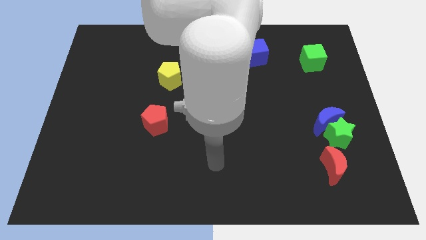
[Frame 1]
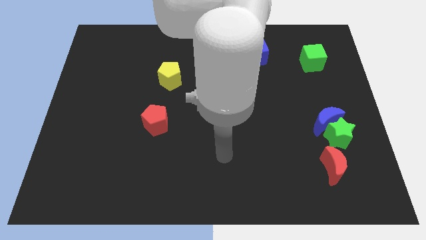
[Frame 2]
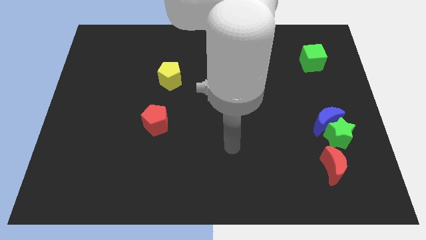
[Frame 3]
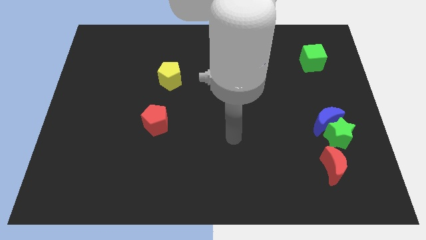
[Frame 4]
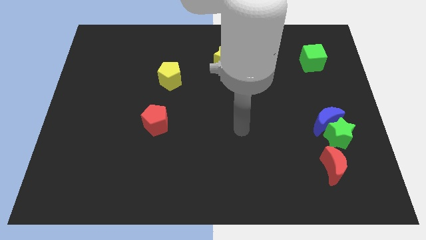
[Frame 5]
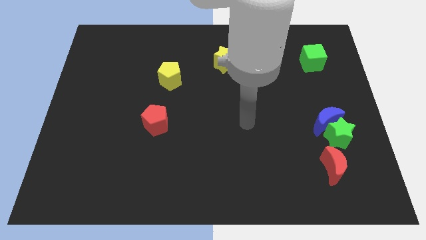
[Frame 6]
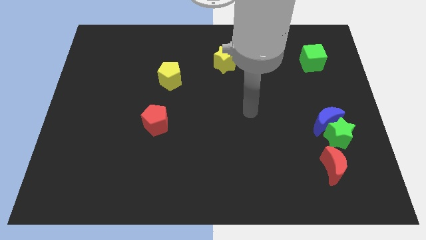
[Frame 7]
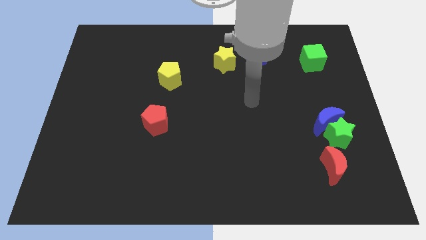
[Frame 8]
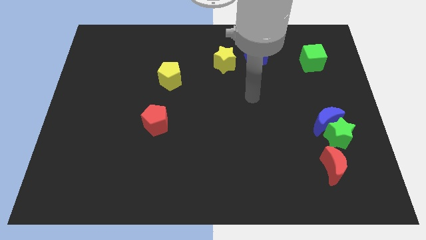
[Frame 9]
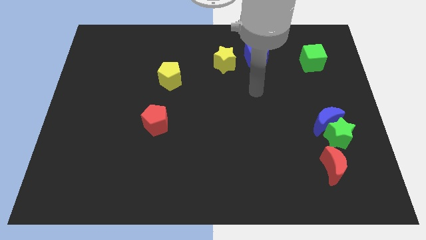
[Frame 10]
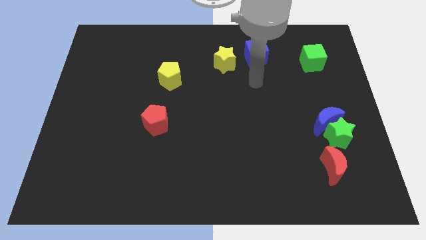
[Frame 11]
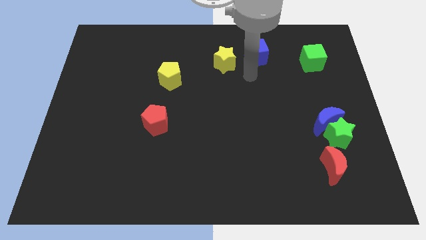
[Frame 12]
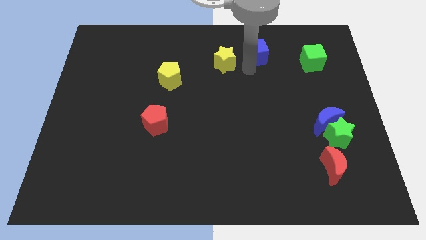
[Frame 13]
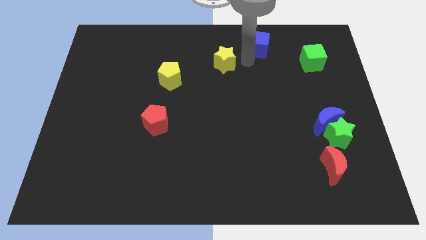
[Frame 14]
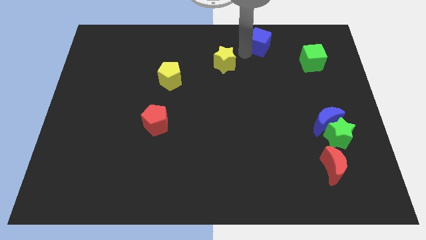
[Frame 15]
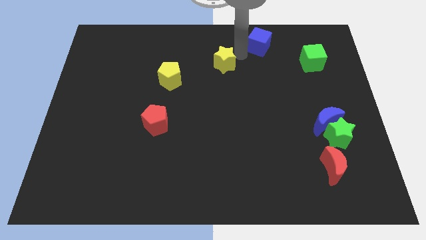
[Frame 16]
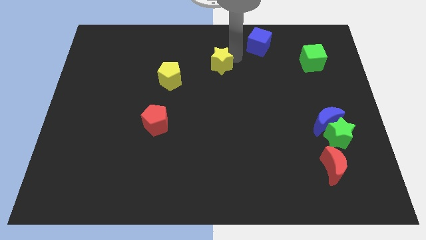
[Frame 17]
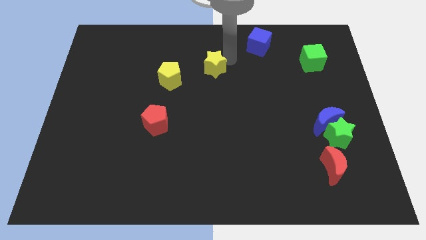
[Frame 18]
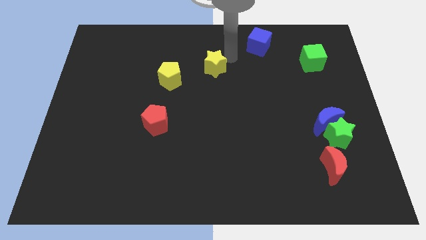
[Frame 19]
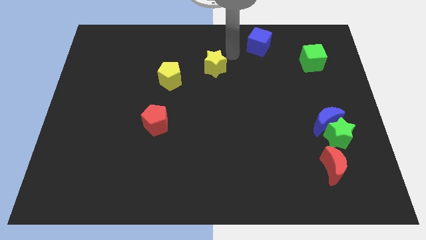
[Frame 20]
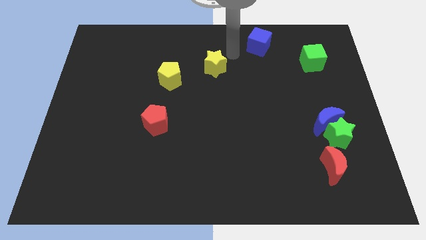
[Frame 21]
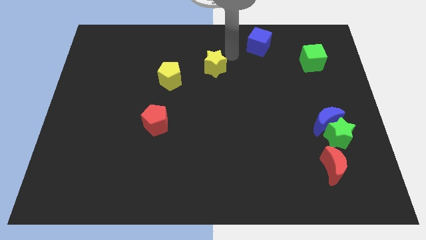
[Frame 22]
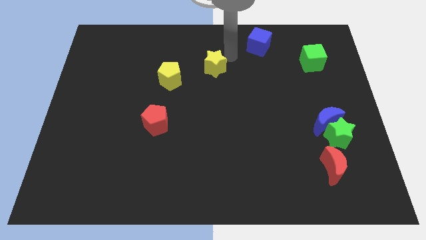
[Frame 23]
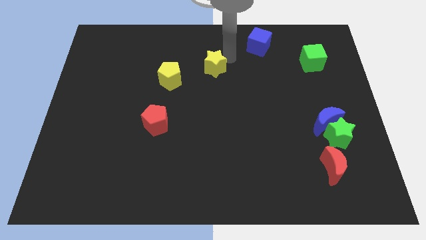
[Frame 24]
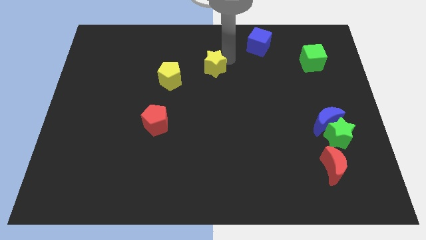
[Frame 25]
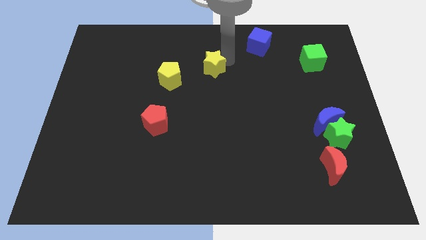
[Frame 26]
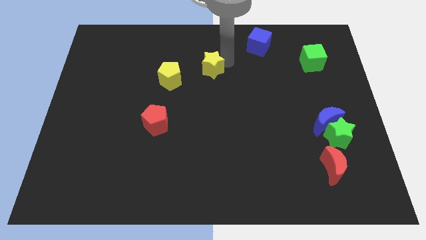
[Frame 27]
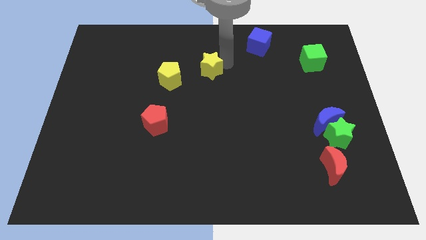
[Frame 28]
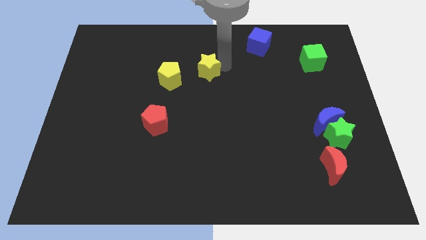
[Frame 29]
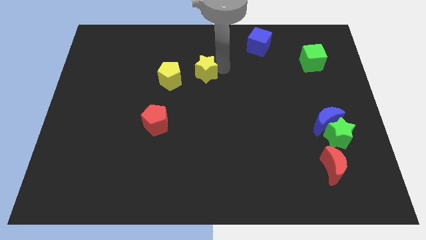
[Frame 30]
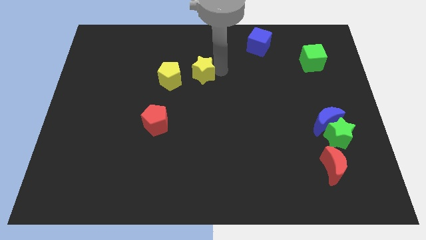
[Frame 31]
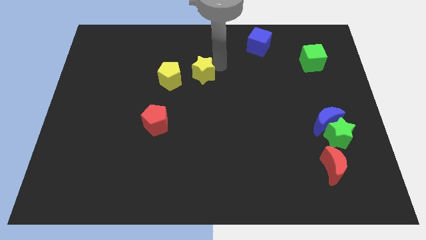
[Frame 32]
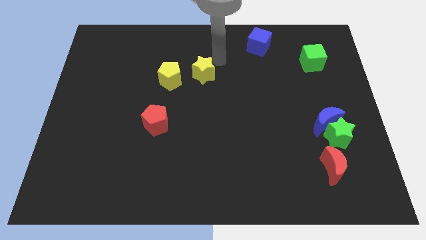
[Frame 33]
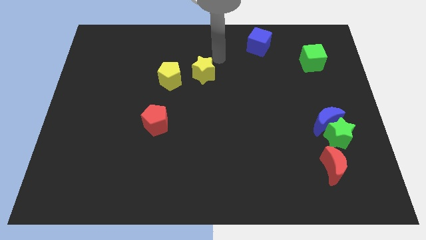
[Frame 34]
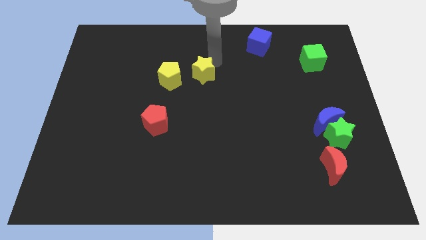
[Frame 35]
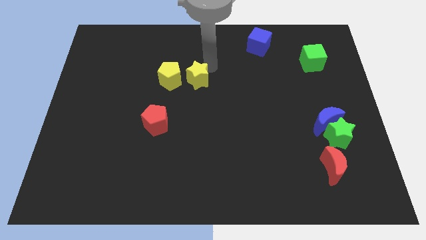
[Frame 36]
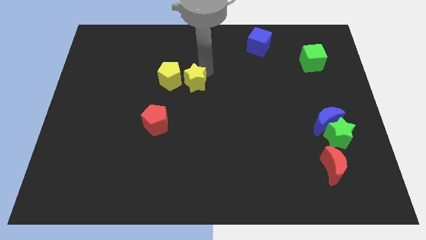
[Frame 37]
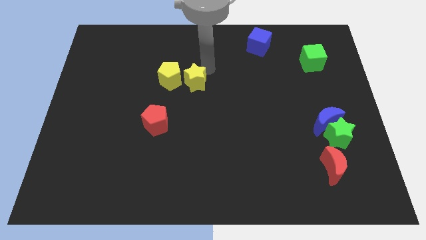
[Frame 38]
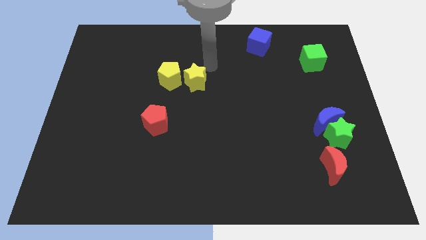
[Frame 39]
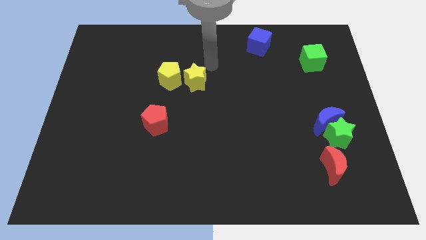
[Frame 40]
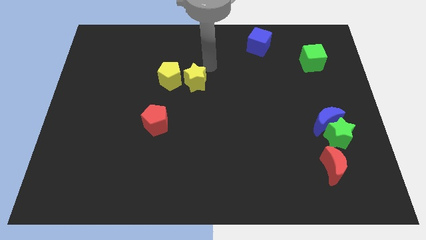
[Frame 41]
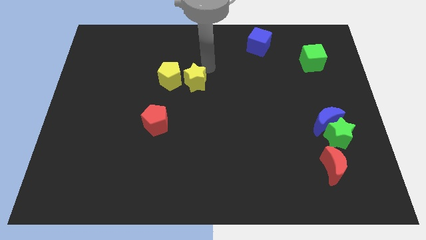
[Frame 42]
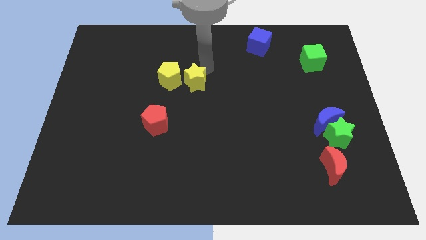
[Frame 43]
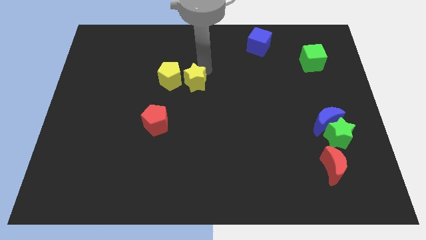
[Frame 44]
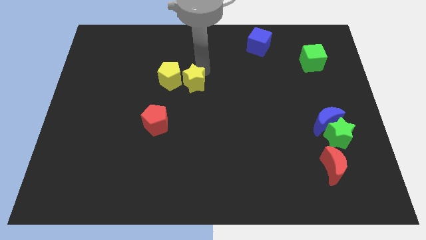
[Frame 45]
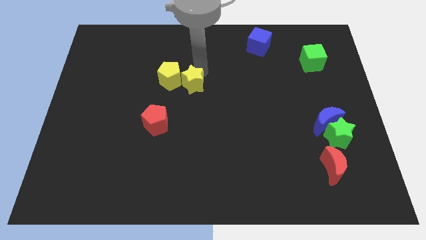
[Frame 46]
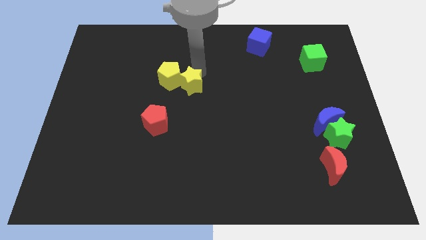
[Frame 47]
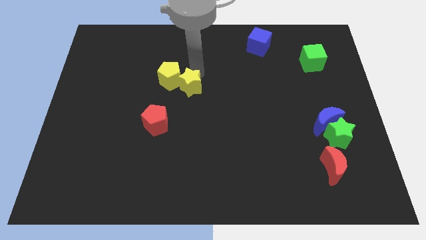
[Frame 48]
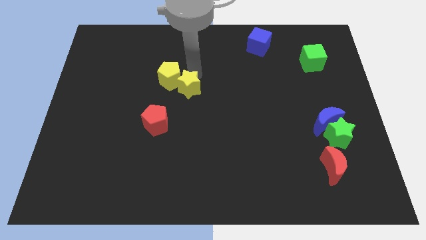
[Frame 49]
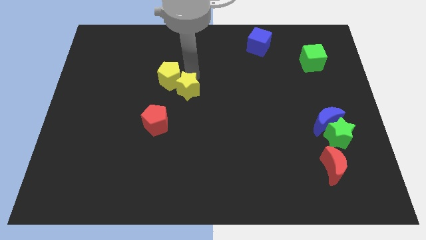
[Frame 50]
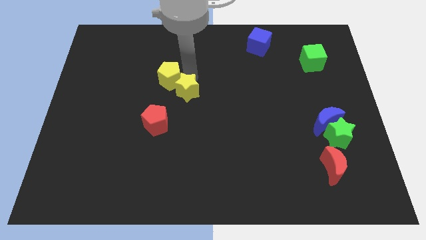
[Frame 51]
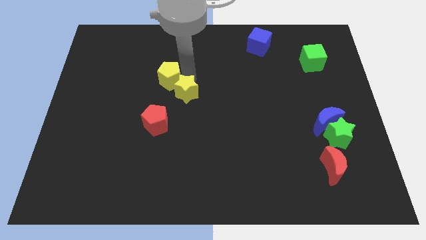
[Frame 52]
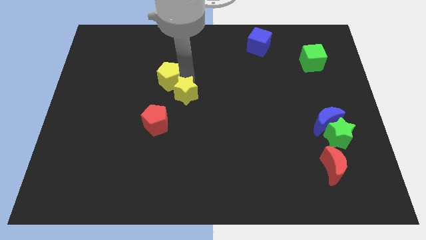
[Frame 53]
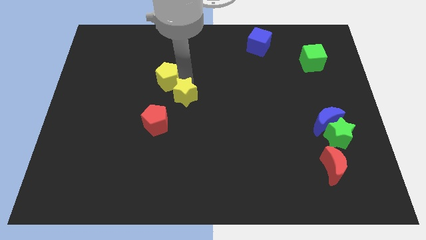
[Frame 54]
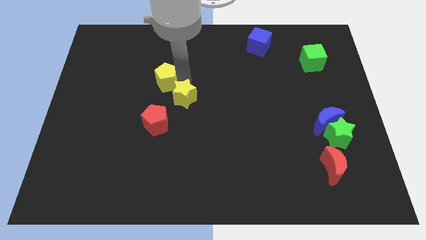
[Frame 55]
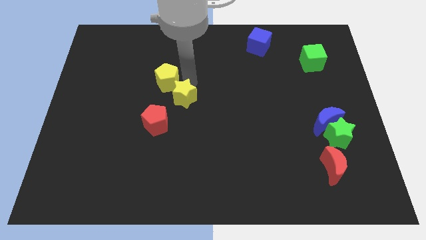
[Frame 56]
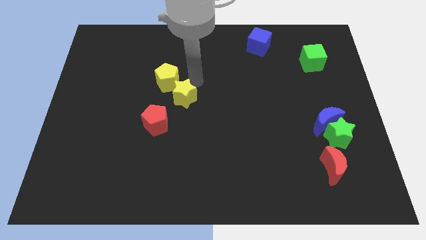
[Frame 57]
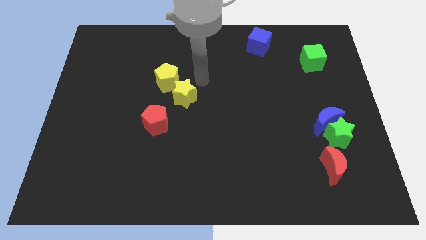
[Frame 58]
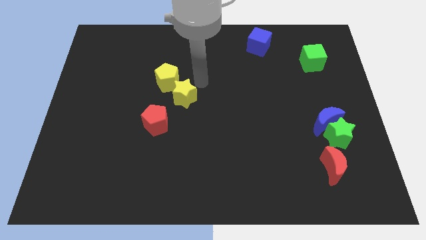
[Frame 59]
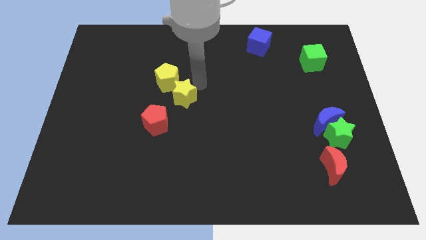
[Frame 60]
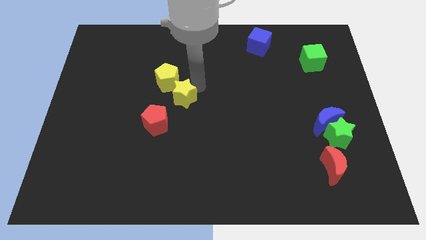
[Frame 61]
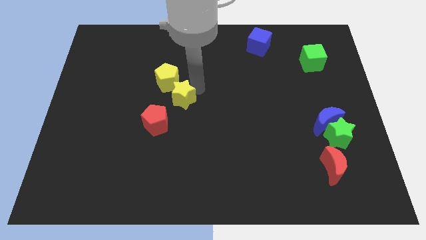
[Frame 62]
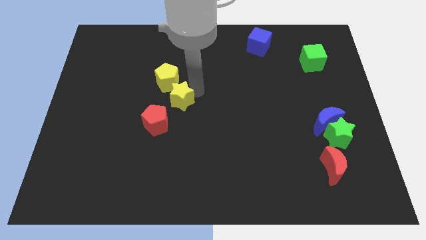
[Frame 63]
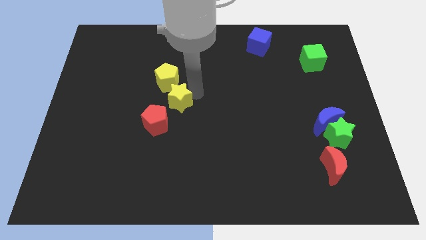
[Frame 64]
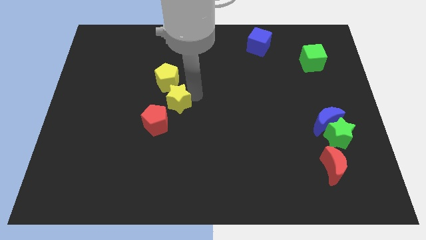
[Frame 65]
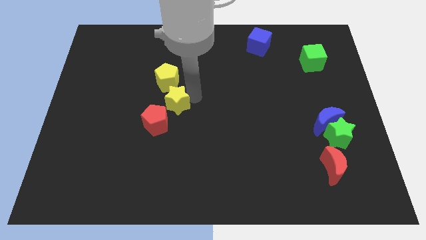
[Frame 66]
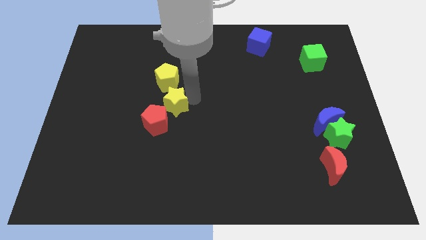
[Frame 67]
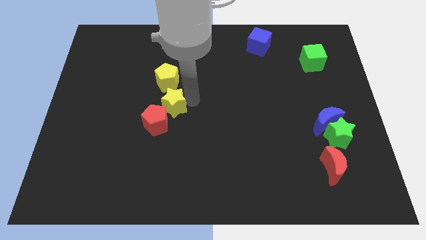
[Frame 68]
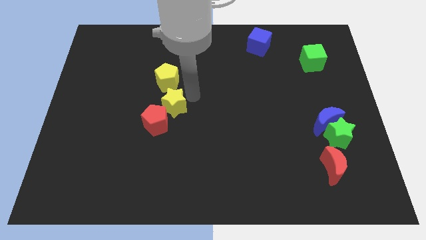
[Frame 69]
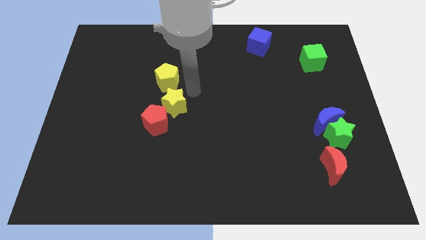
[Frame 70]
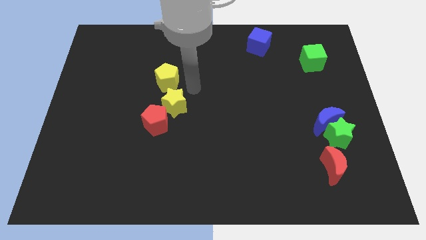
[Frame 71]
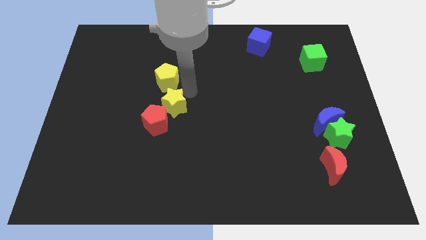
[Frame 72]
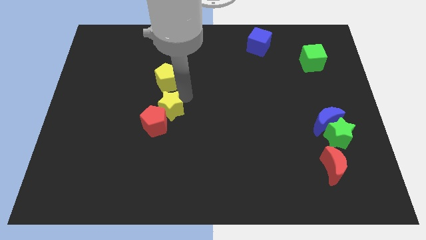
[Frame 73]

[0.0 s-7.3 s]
move the yellow star towards the red pentagon

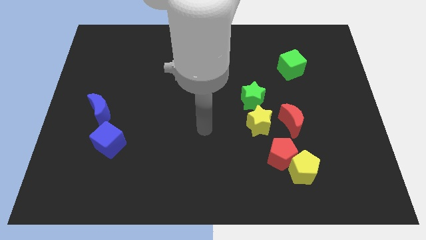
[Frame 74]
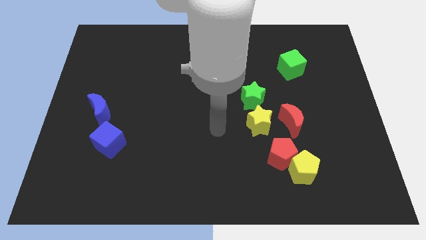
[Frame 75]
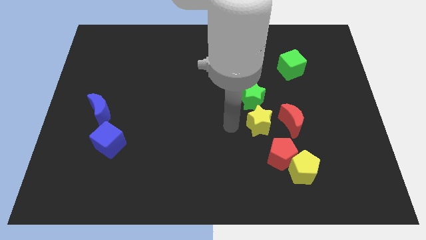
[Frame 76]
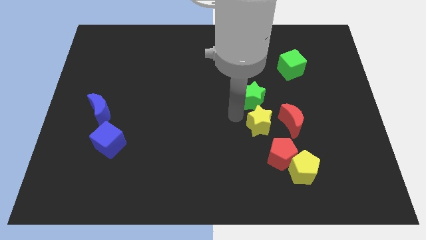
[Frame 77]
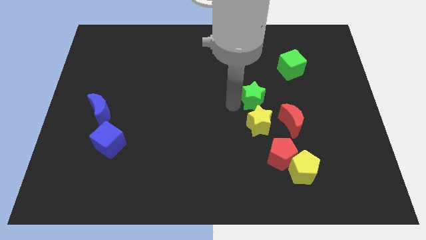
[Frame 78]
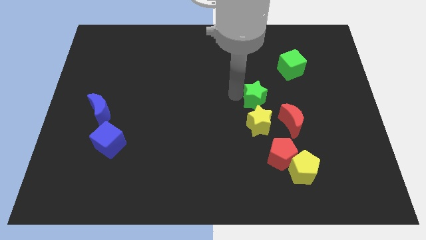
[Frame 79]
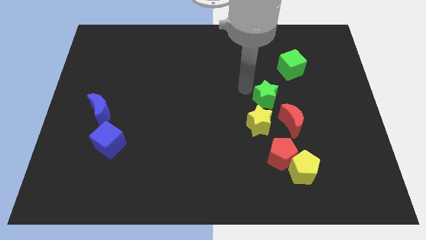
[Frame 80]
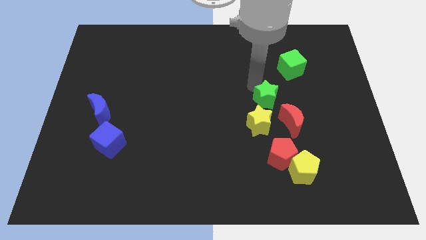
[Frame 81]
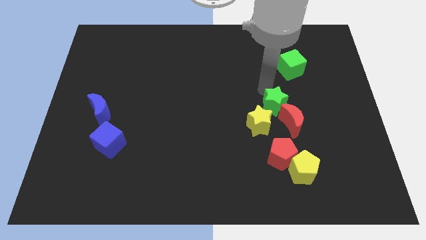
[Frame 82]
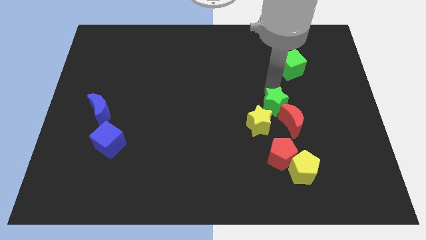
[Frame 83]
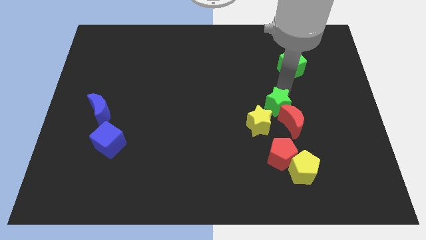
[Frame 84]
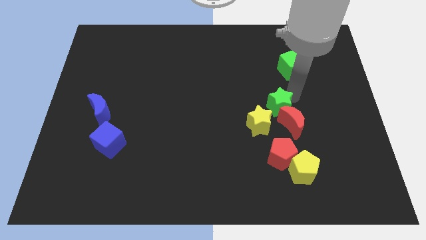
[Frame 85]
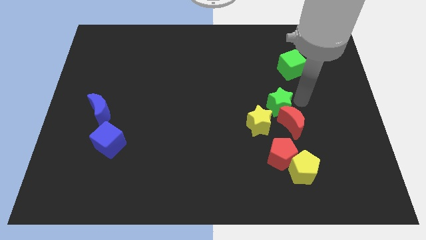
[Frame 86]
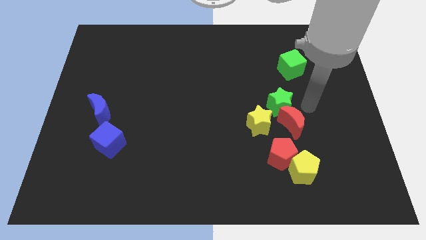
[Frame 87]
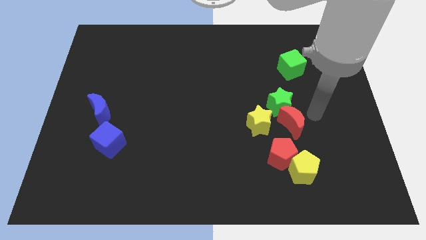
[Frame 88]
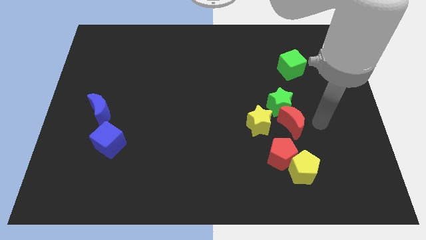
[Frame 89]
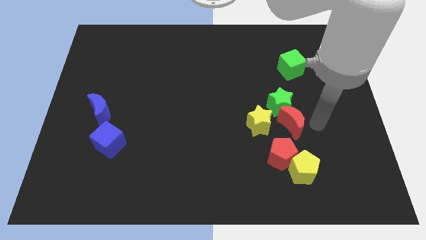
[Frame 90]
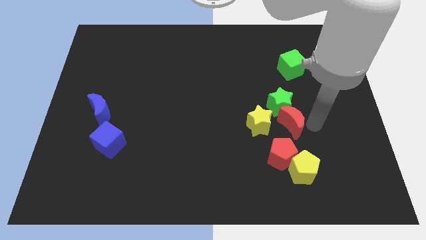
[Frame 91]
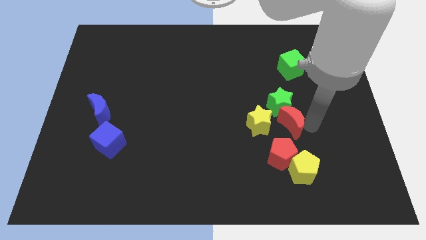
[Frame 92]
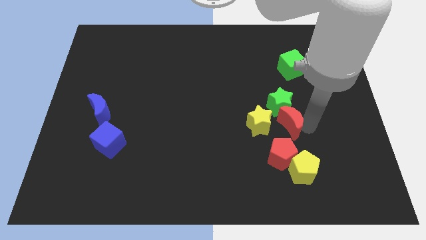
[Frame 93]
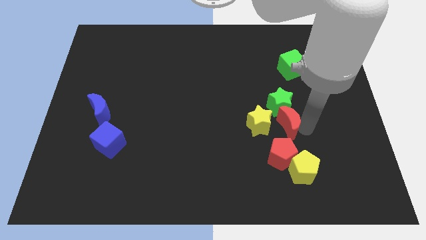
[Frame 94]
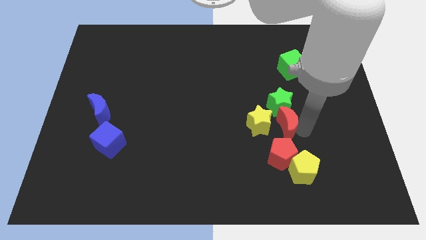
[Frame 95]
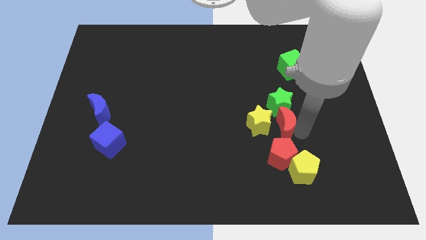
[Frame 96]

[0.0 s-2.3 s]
put the red moon to the yellow star
